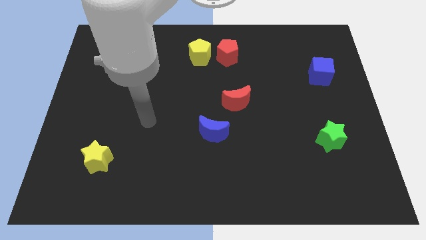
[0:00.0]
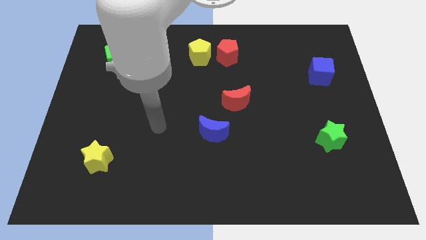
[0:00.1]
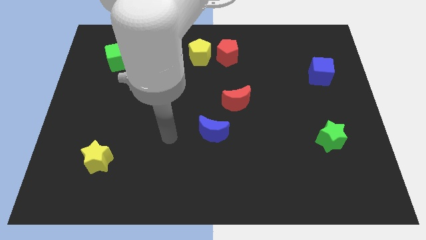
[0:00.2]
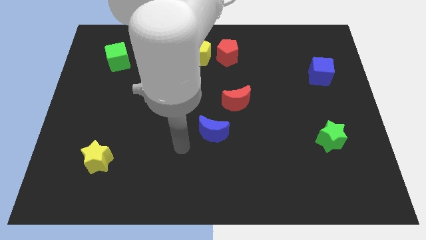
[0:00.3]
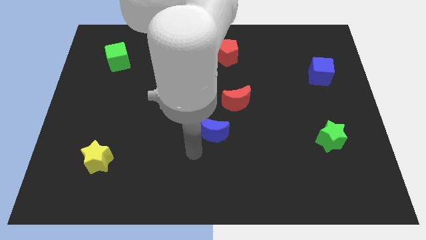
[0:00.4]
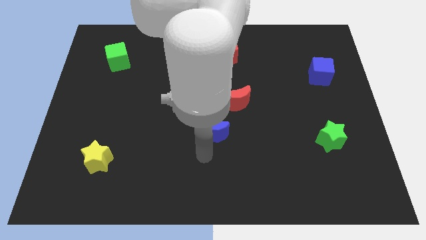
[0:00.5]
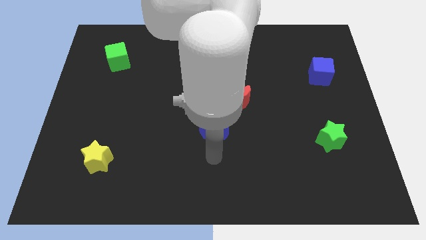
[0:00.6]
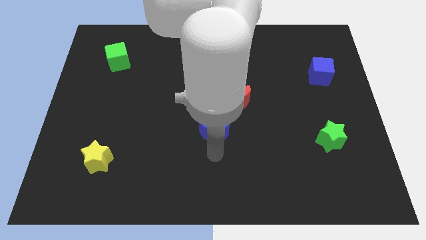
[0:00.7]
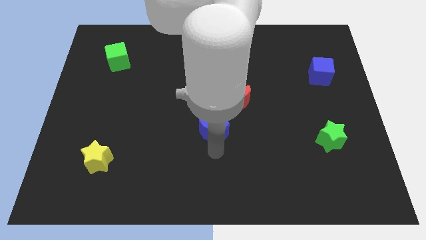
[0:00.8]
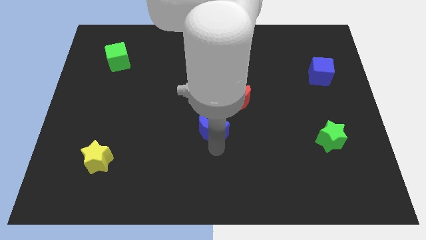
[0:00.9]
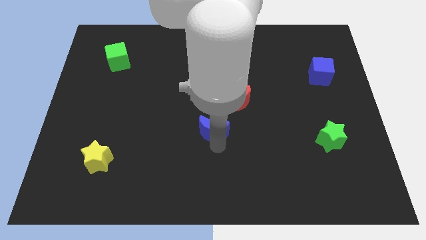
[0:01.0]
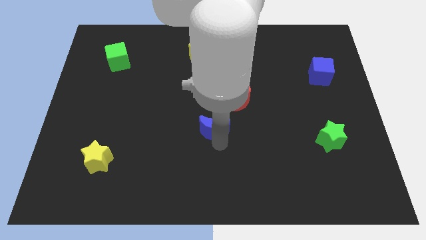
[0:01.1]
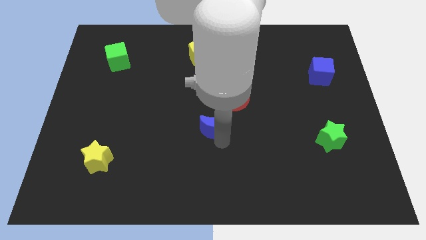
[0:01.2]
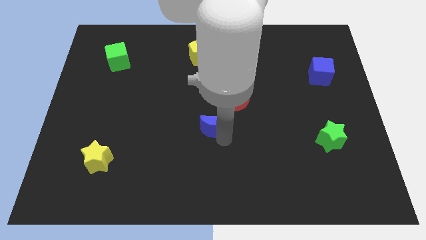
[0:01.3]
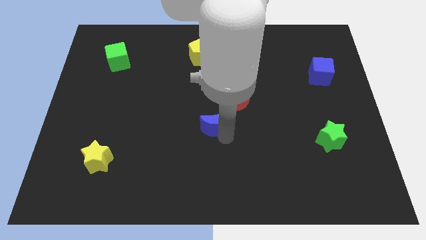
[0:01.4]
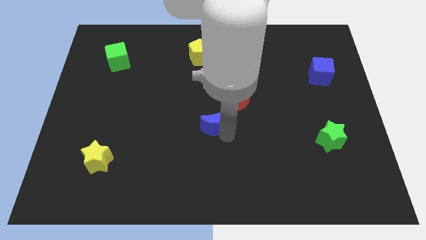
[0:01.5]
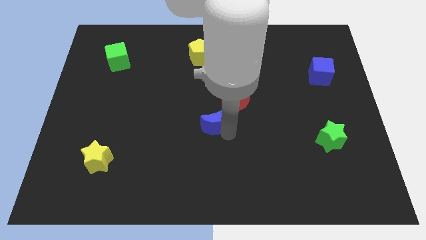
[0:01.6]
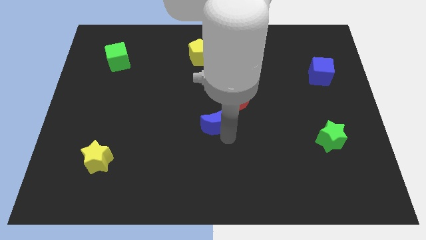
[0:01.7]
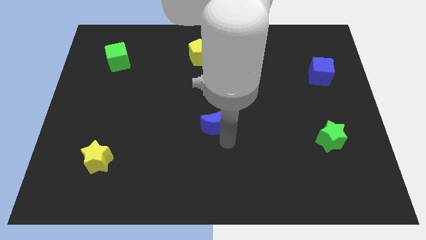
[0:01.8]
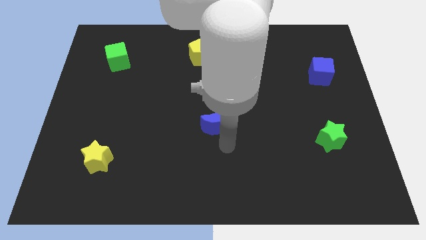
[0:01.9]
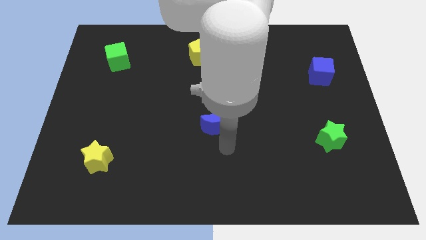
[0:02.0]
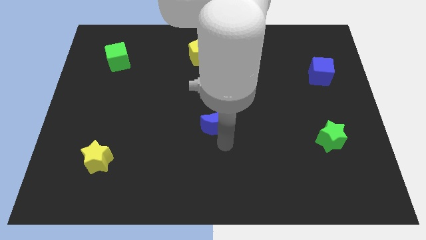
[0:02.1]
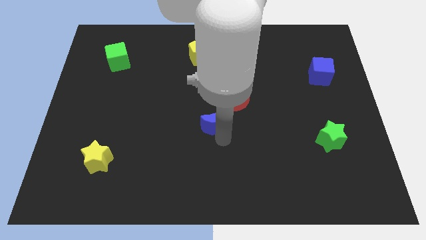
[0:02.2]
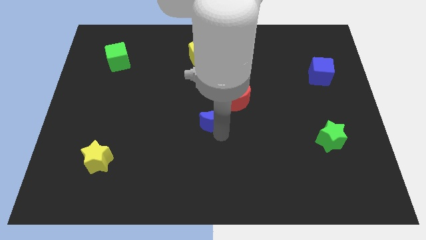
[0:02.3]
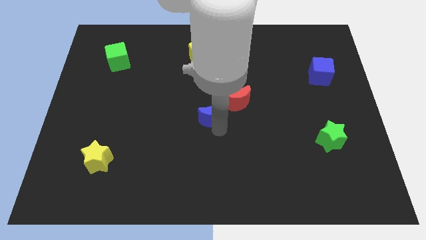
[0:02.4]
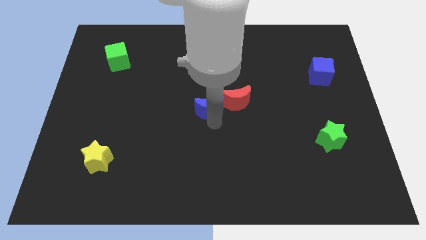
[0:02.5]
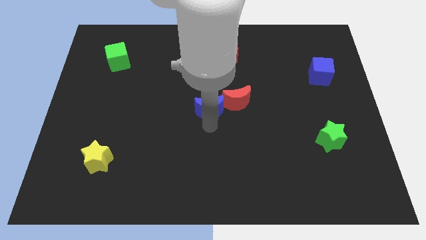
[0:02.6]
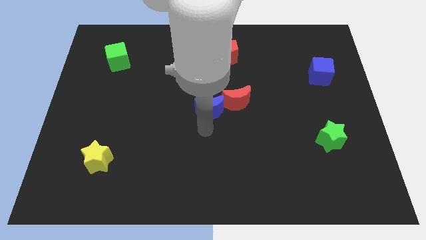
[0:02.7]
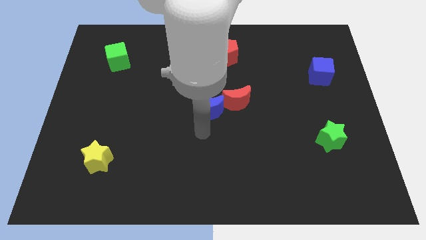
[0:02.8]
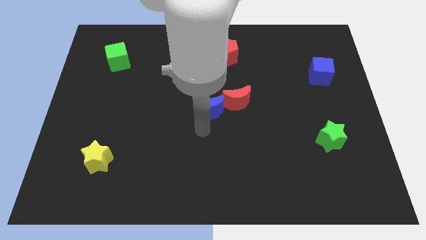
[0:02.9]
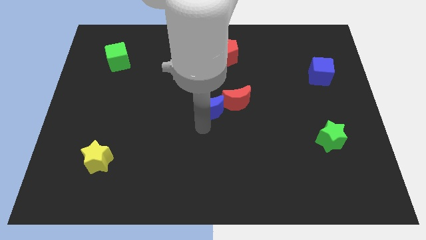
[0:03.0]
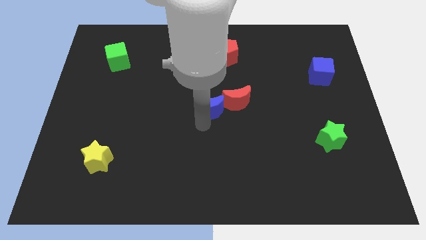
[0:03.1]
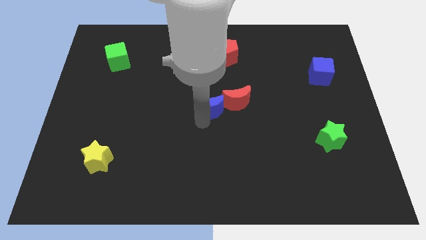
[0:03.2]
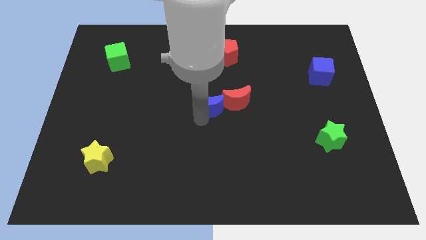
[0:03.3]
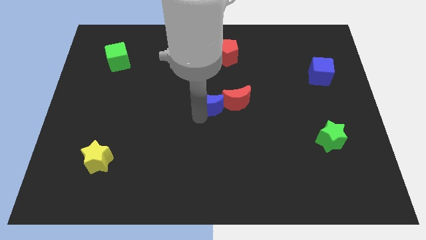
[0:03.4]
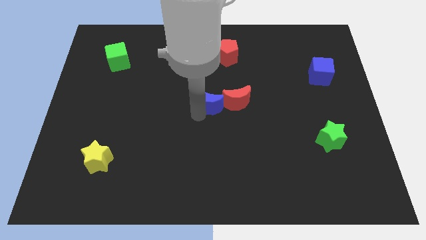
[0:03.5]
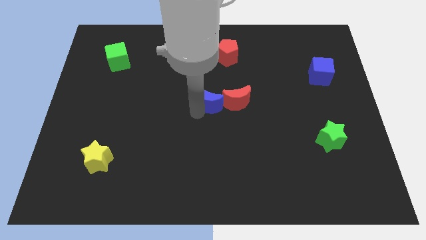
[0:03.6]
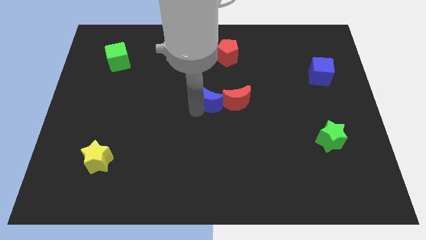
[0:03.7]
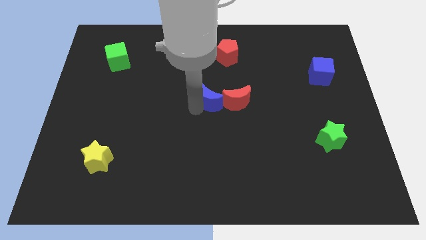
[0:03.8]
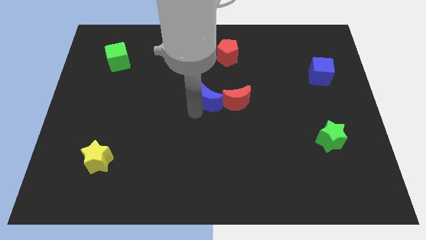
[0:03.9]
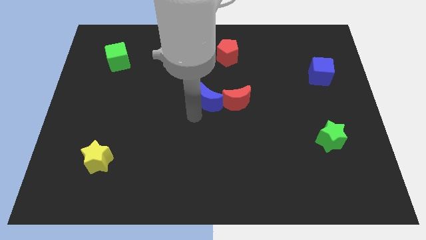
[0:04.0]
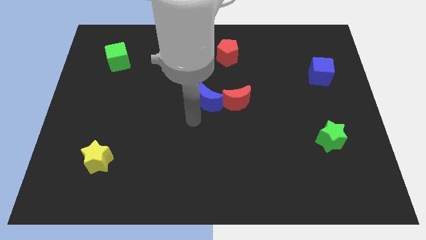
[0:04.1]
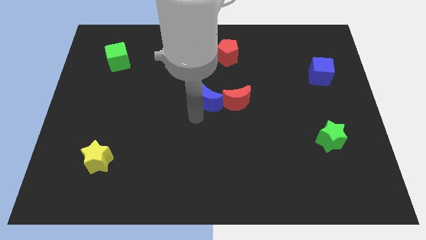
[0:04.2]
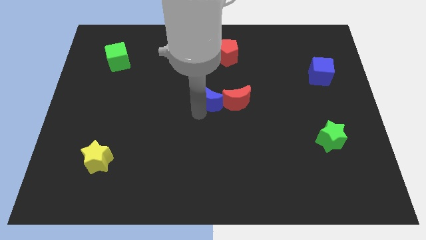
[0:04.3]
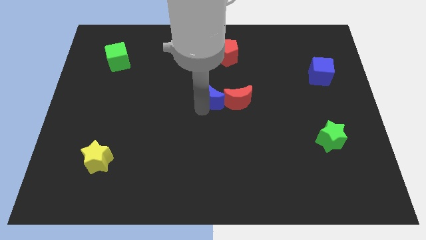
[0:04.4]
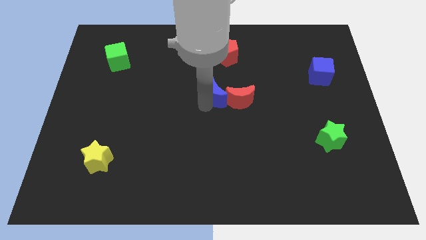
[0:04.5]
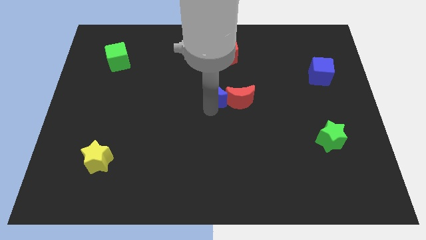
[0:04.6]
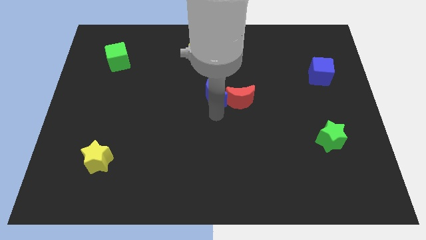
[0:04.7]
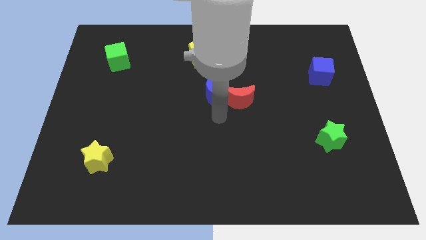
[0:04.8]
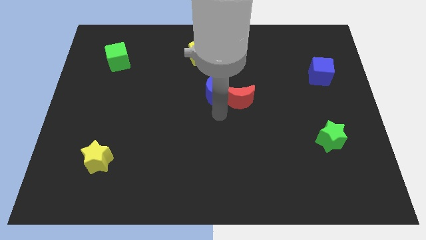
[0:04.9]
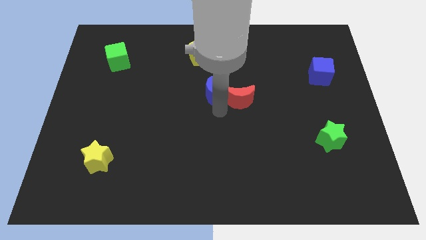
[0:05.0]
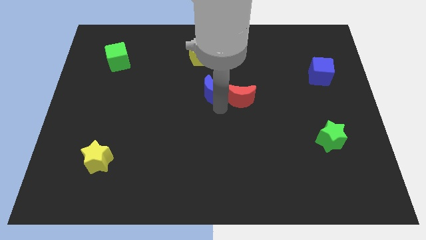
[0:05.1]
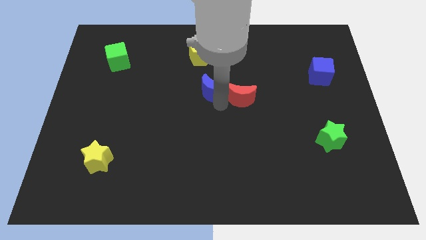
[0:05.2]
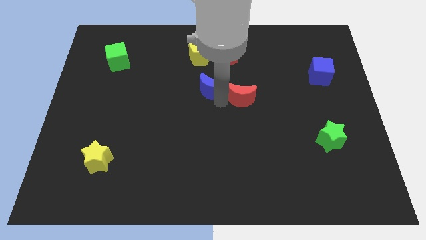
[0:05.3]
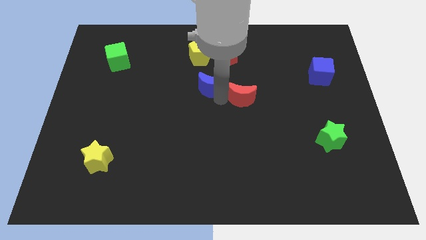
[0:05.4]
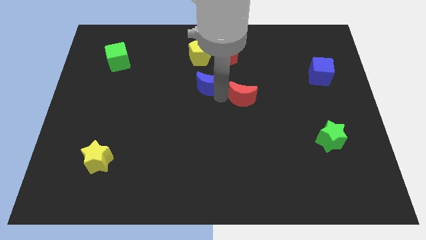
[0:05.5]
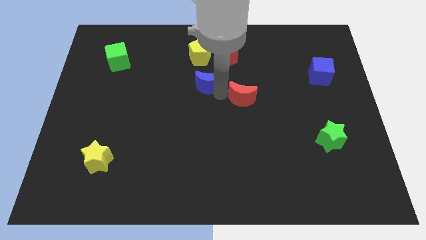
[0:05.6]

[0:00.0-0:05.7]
put the blue moon to the bottom left of the red pentagon

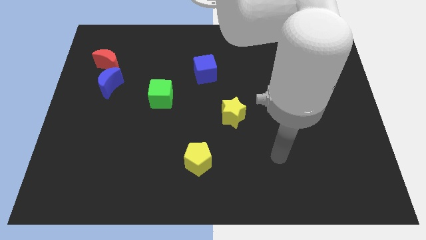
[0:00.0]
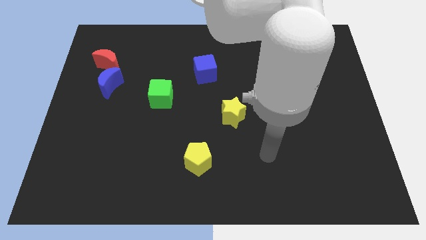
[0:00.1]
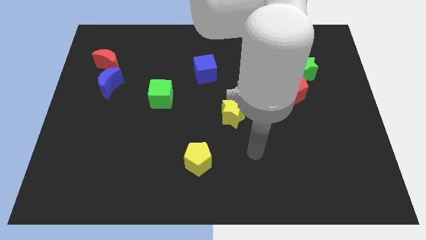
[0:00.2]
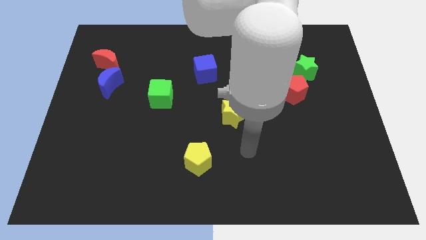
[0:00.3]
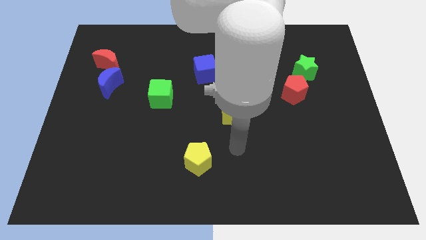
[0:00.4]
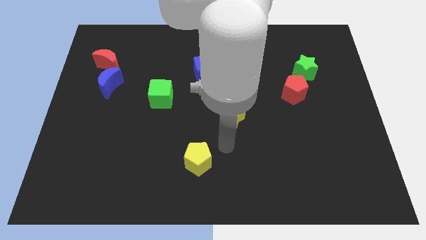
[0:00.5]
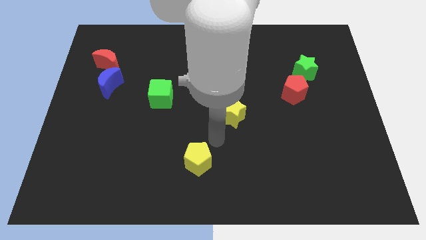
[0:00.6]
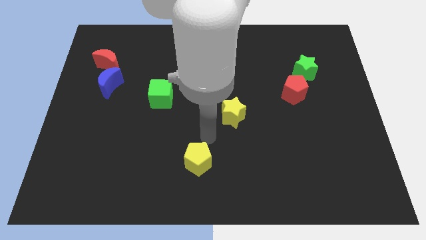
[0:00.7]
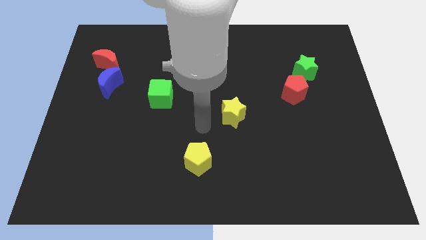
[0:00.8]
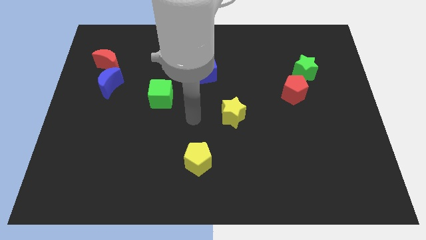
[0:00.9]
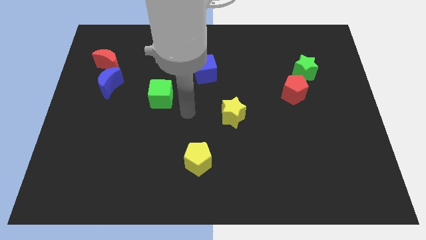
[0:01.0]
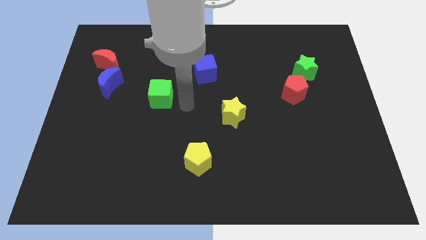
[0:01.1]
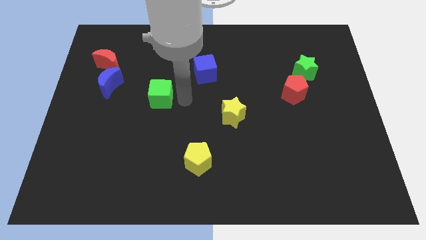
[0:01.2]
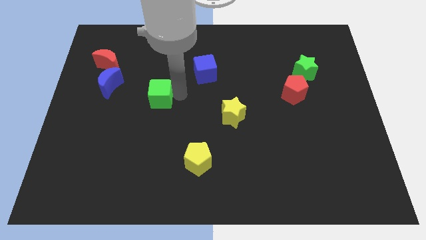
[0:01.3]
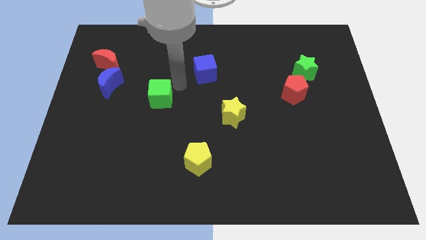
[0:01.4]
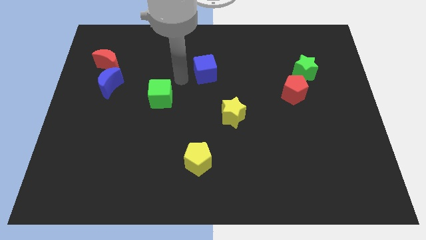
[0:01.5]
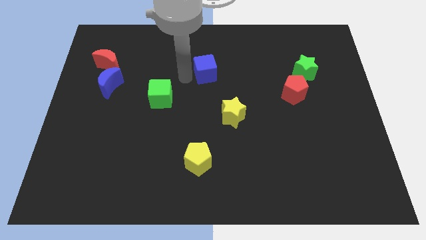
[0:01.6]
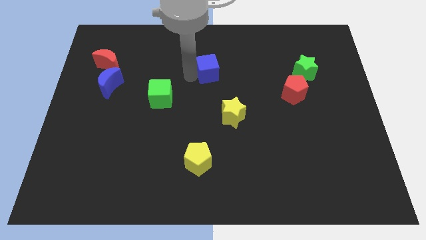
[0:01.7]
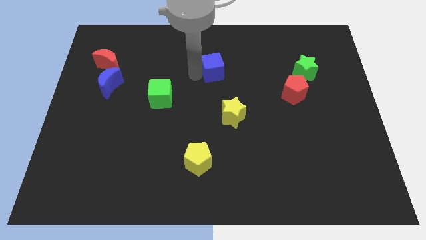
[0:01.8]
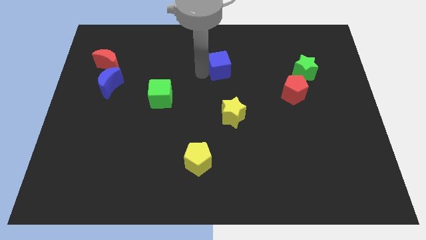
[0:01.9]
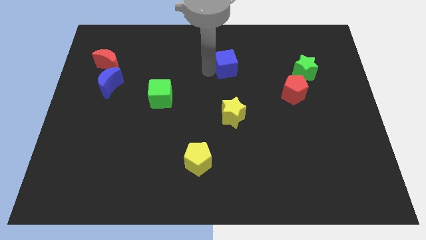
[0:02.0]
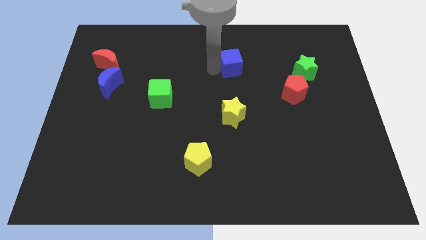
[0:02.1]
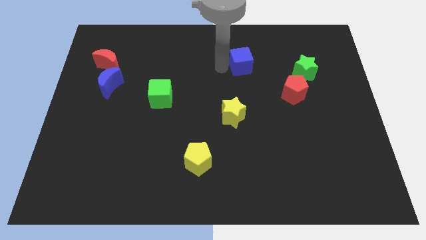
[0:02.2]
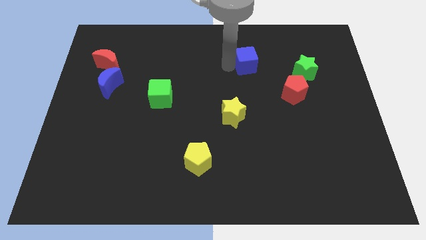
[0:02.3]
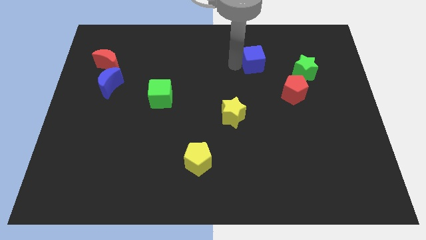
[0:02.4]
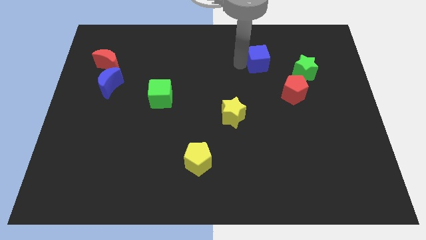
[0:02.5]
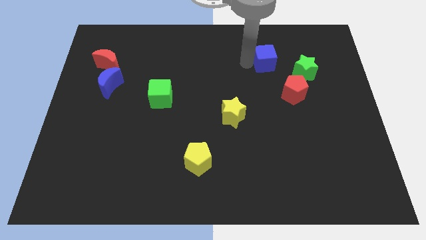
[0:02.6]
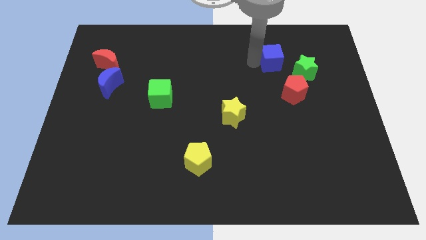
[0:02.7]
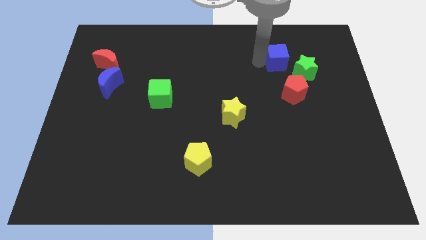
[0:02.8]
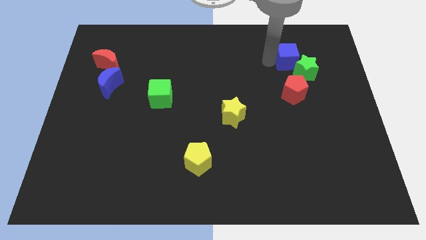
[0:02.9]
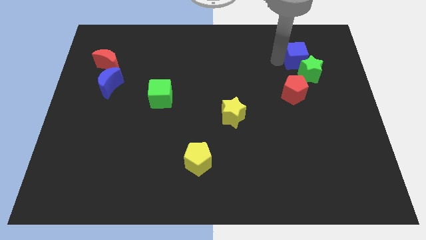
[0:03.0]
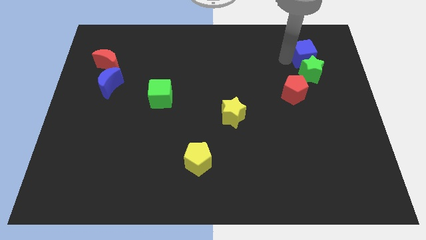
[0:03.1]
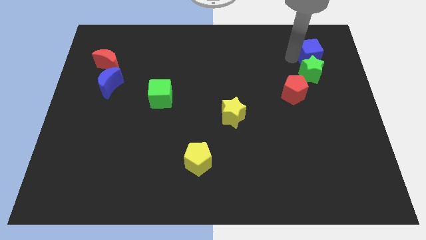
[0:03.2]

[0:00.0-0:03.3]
slide the blue cube to the top right of the green star
